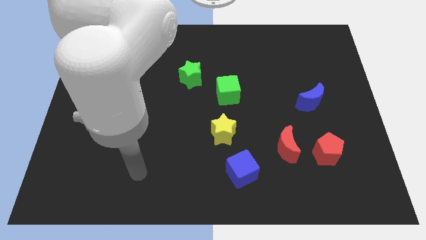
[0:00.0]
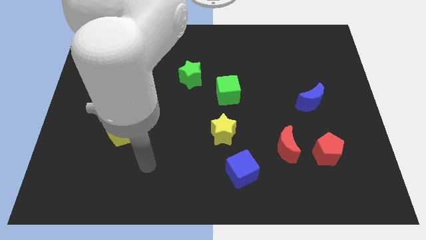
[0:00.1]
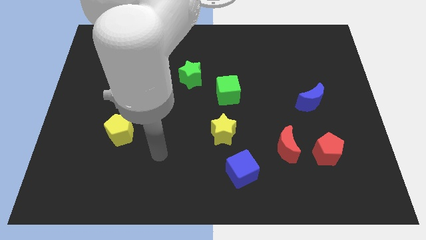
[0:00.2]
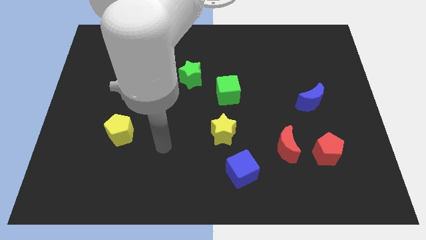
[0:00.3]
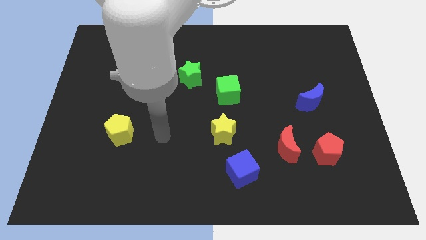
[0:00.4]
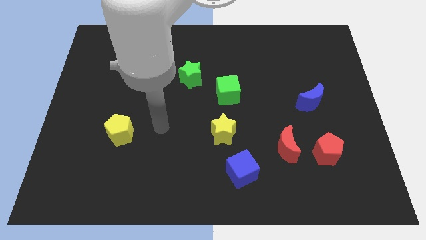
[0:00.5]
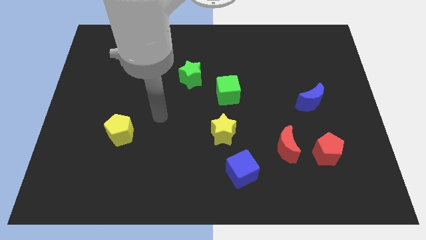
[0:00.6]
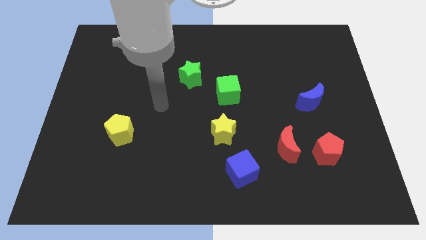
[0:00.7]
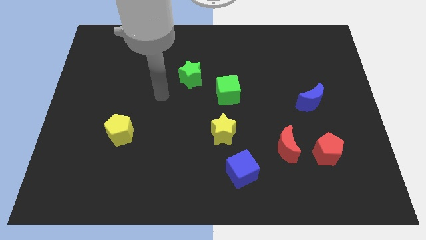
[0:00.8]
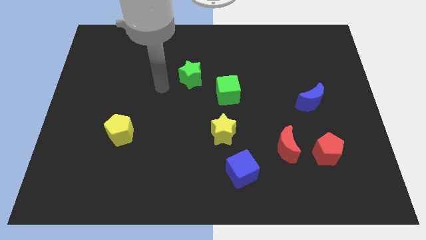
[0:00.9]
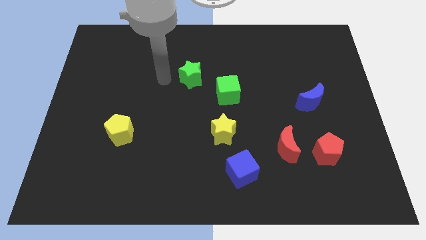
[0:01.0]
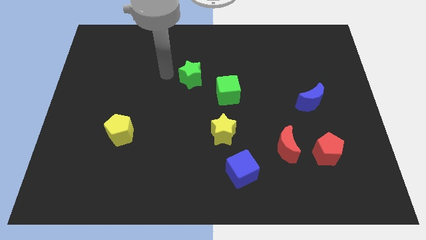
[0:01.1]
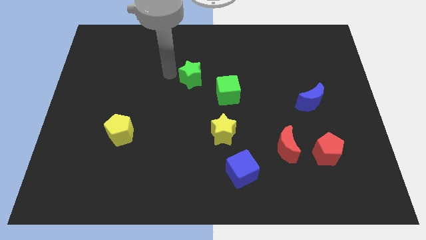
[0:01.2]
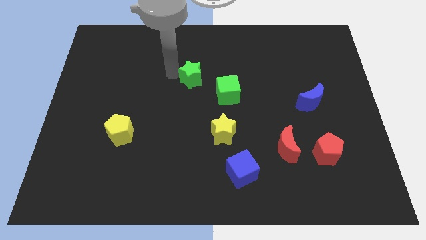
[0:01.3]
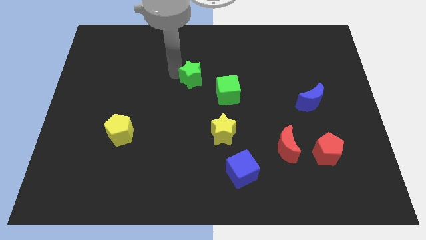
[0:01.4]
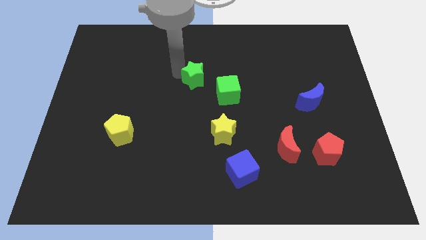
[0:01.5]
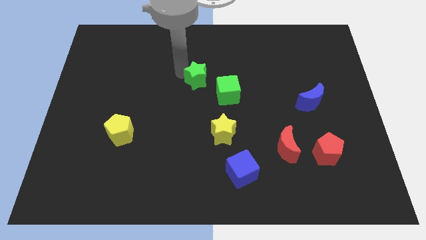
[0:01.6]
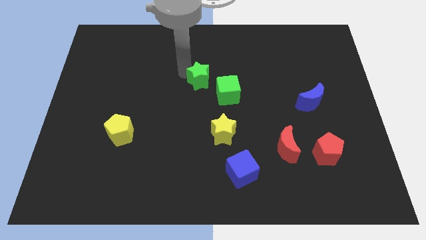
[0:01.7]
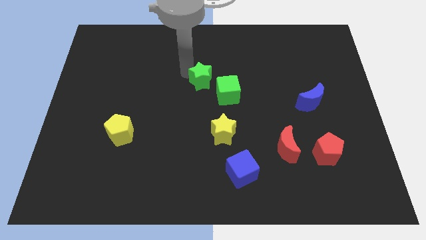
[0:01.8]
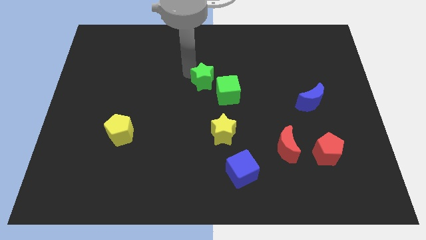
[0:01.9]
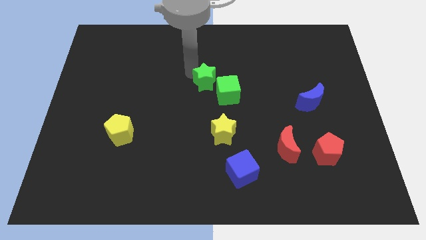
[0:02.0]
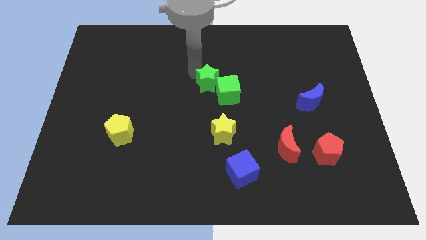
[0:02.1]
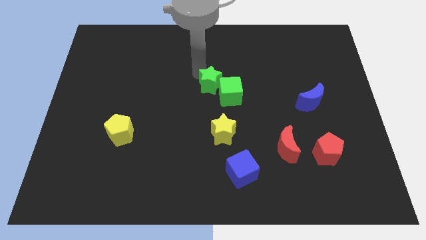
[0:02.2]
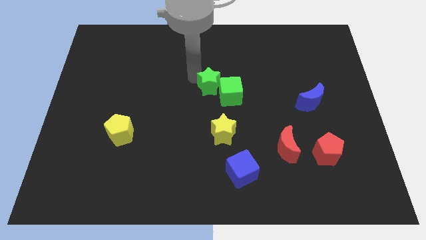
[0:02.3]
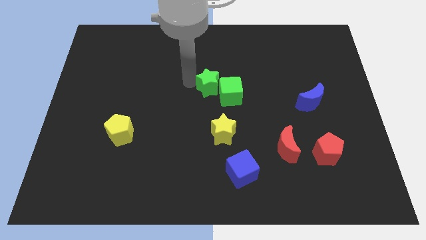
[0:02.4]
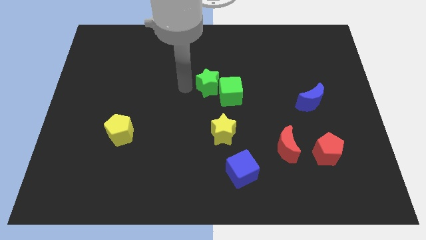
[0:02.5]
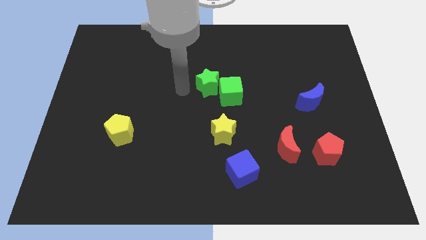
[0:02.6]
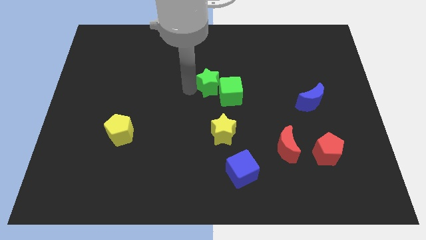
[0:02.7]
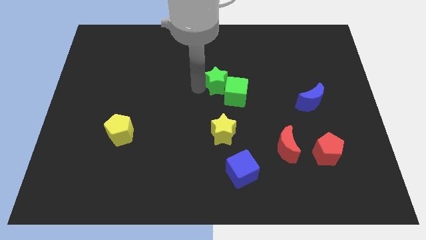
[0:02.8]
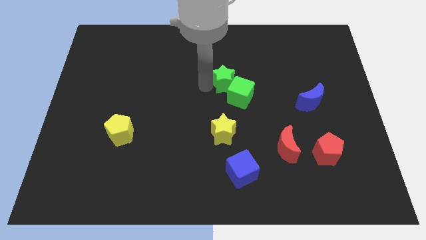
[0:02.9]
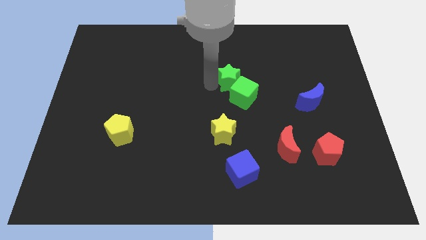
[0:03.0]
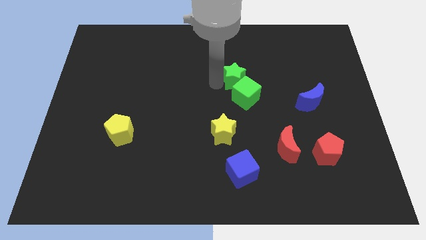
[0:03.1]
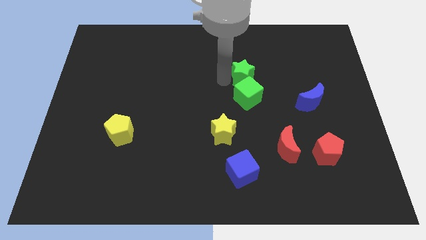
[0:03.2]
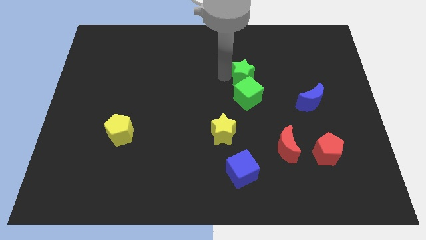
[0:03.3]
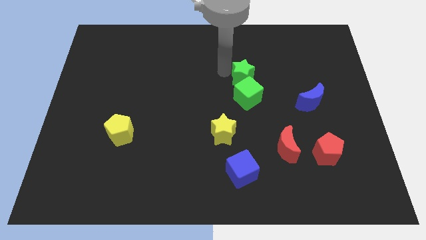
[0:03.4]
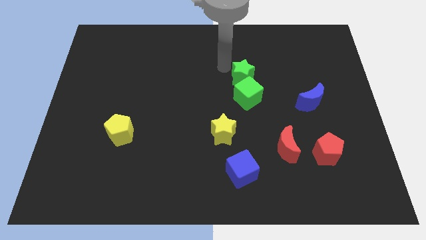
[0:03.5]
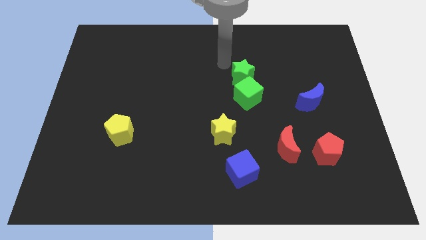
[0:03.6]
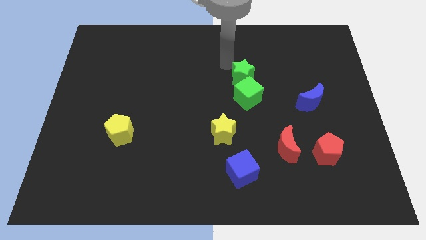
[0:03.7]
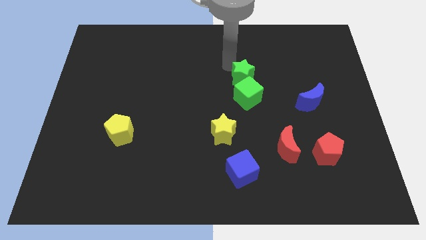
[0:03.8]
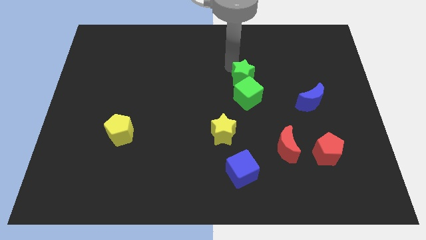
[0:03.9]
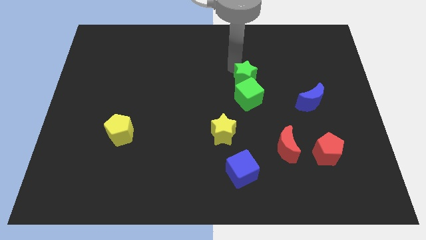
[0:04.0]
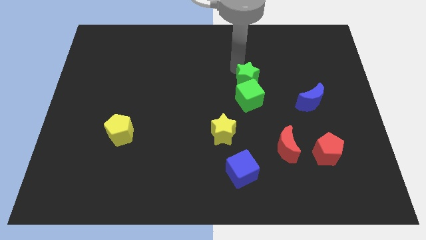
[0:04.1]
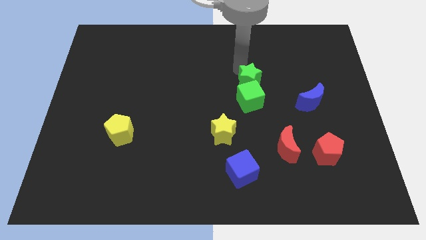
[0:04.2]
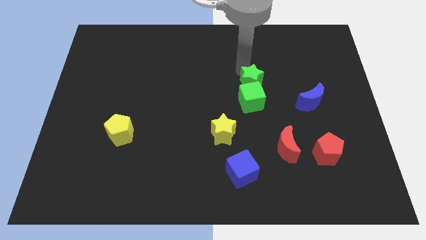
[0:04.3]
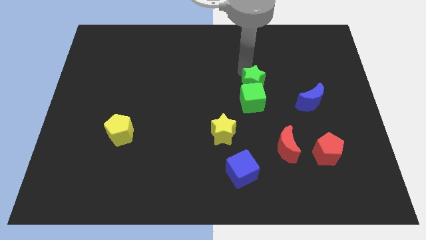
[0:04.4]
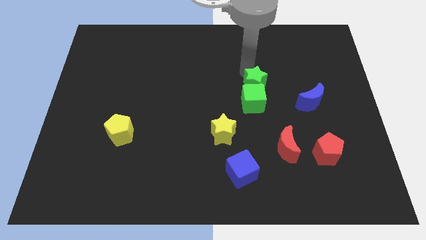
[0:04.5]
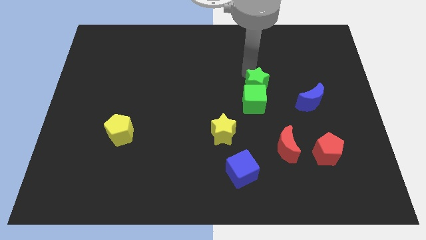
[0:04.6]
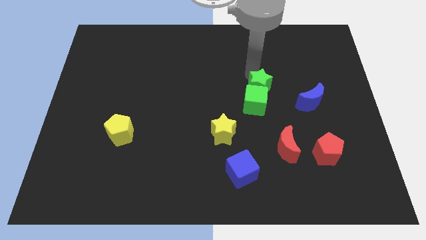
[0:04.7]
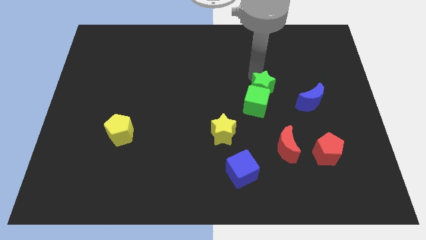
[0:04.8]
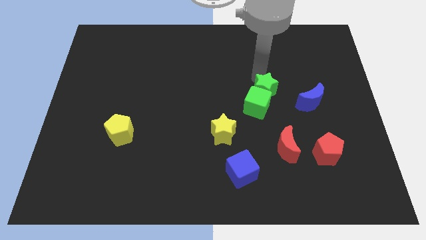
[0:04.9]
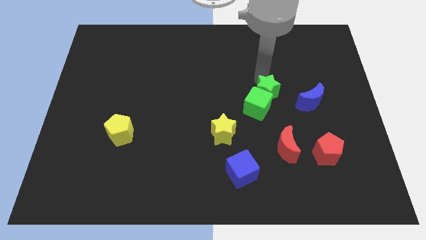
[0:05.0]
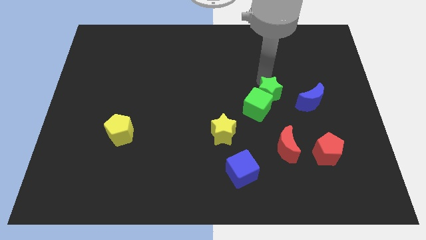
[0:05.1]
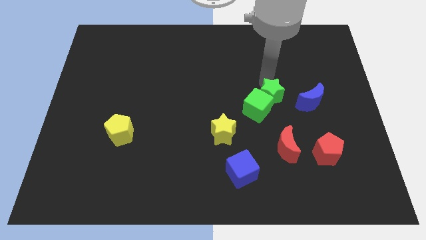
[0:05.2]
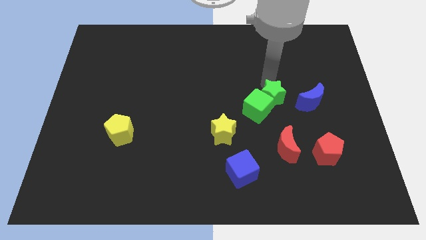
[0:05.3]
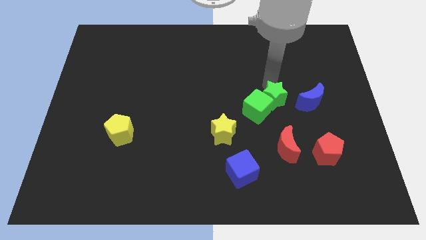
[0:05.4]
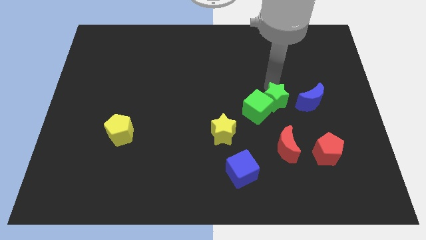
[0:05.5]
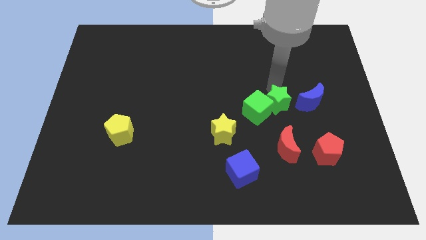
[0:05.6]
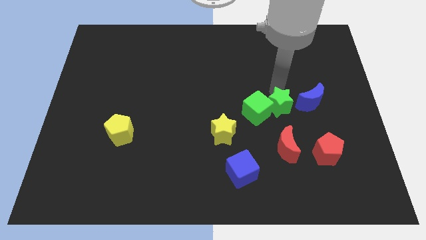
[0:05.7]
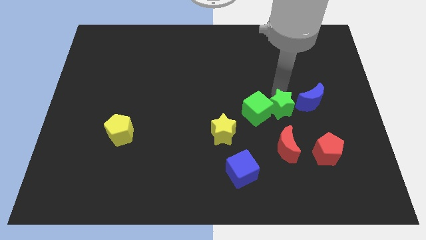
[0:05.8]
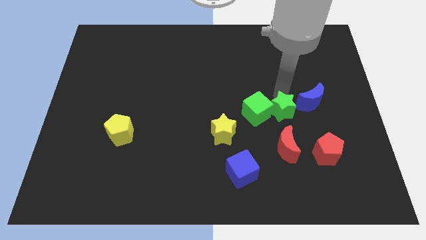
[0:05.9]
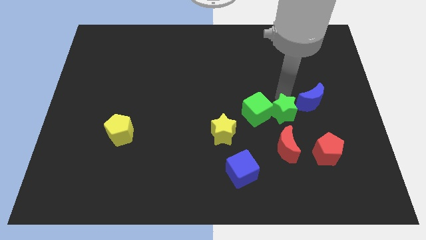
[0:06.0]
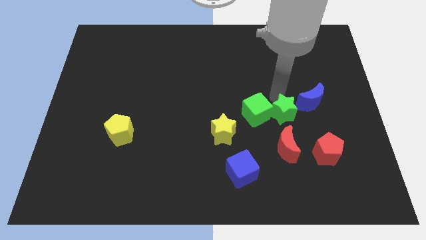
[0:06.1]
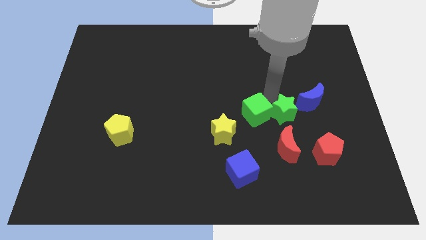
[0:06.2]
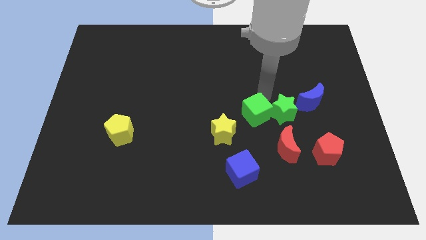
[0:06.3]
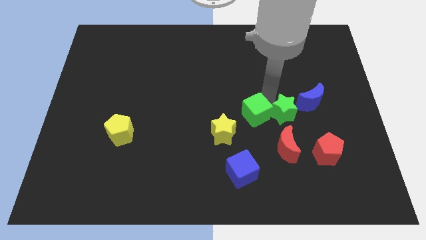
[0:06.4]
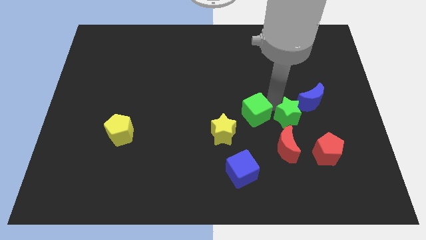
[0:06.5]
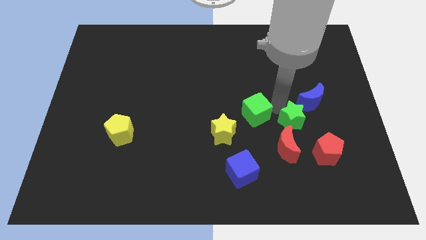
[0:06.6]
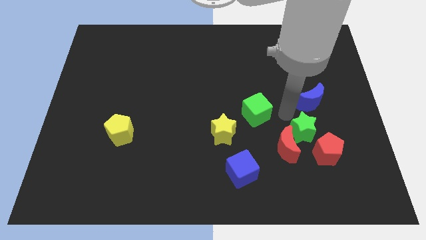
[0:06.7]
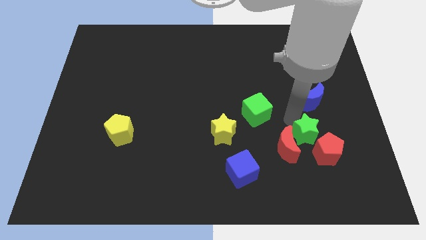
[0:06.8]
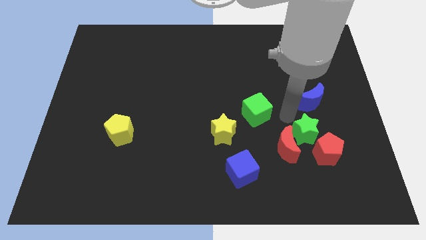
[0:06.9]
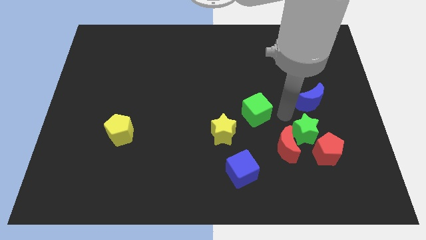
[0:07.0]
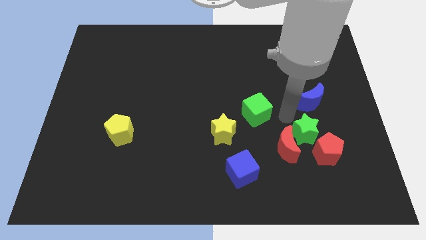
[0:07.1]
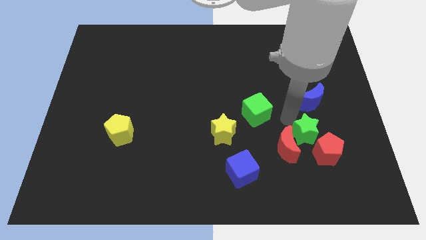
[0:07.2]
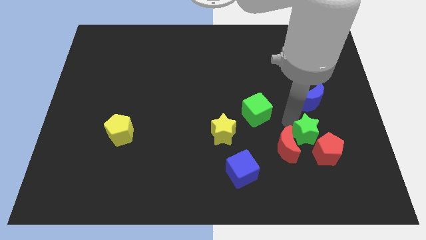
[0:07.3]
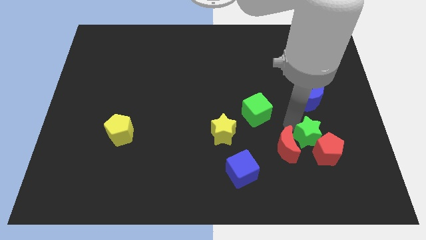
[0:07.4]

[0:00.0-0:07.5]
push the green star next to the red pentagon
